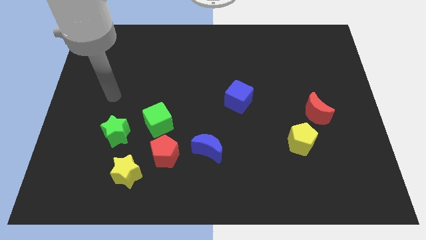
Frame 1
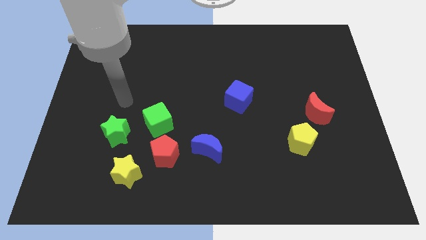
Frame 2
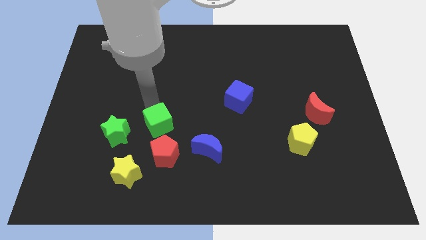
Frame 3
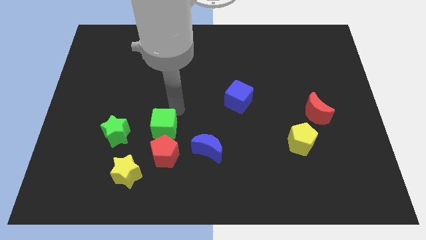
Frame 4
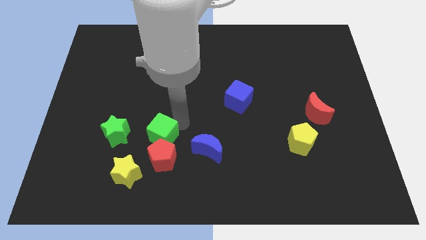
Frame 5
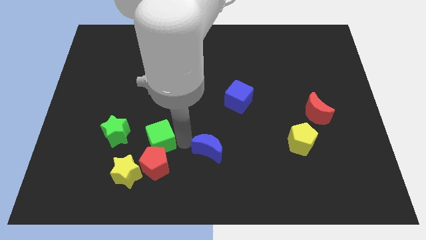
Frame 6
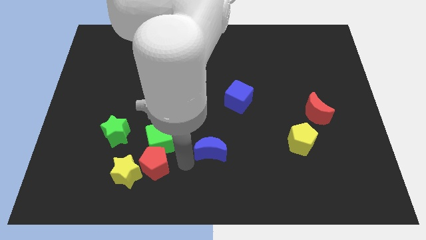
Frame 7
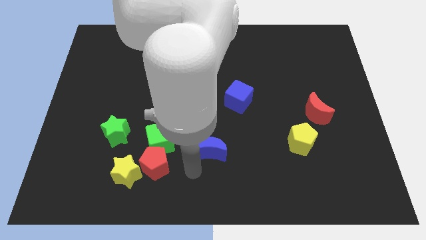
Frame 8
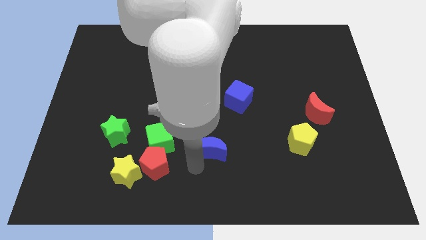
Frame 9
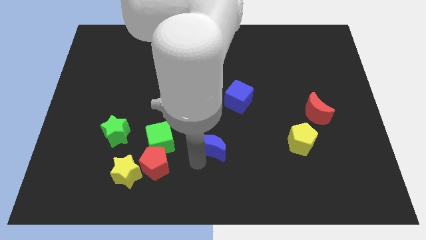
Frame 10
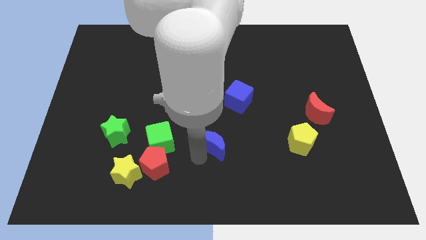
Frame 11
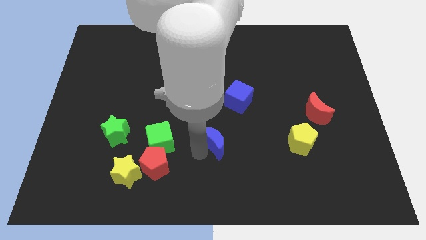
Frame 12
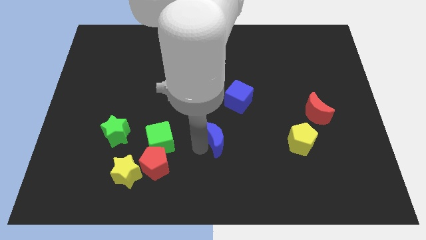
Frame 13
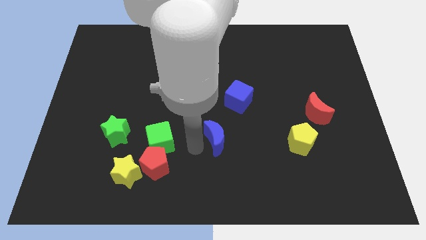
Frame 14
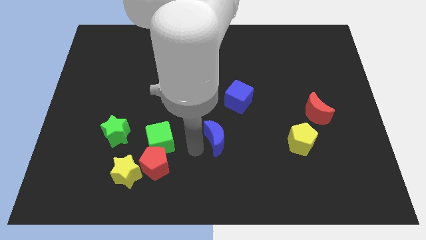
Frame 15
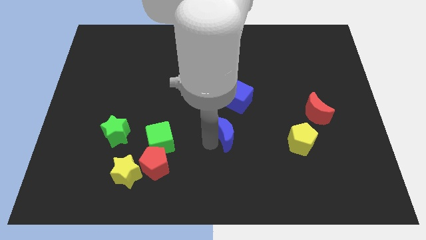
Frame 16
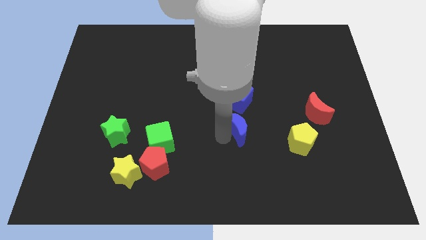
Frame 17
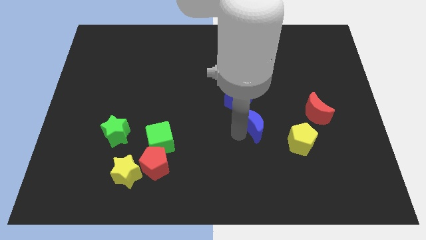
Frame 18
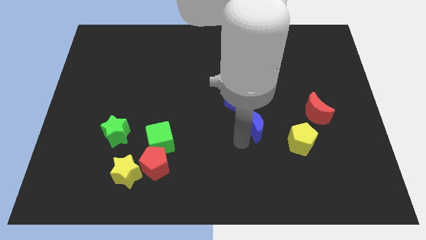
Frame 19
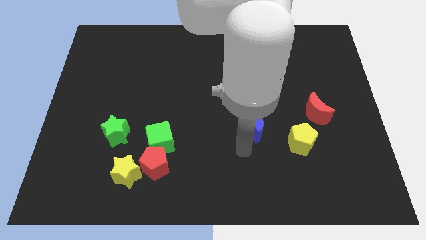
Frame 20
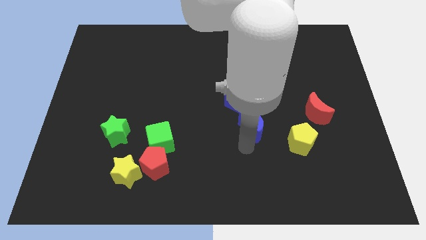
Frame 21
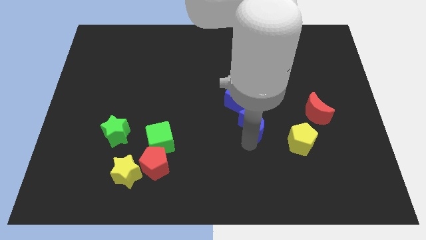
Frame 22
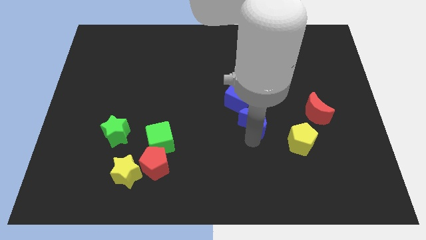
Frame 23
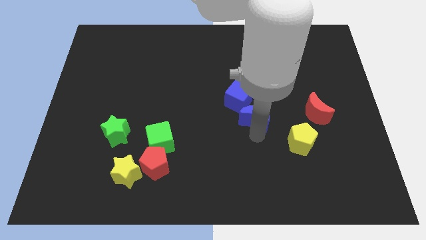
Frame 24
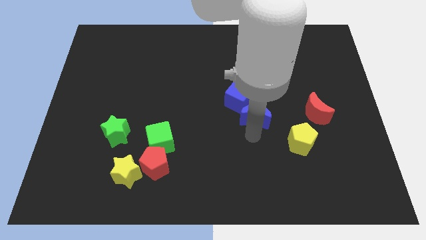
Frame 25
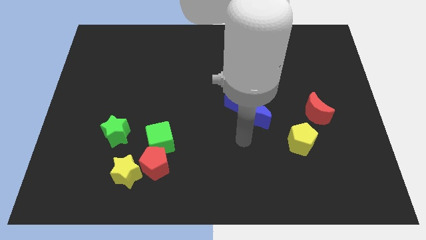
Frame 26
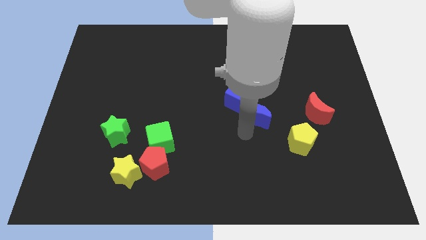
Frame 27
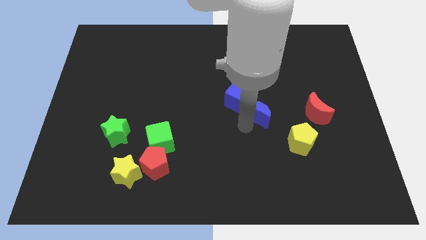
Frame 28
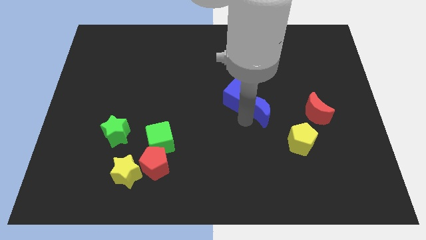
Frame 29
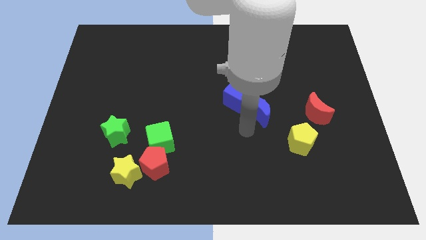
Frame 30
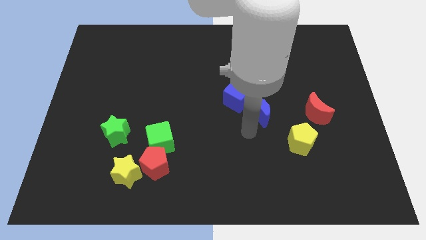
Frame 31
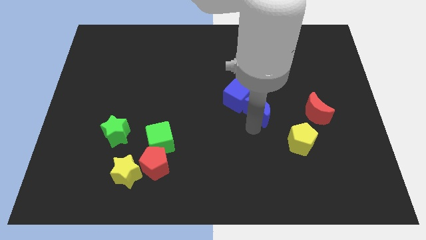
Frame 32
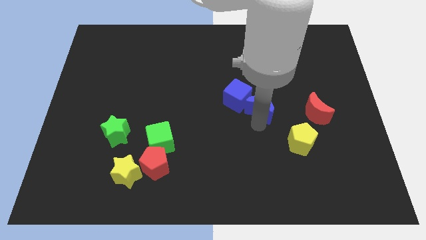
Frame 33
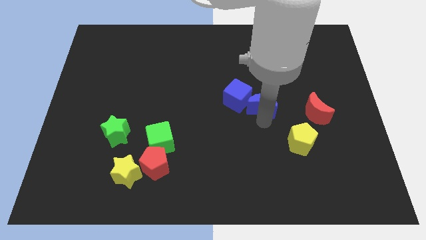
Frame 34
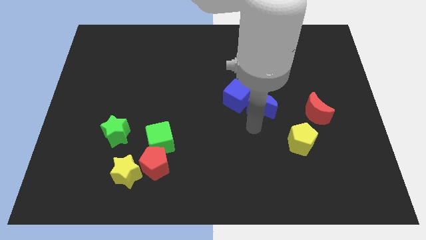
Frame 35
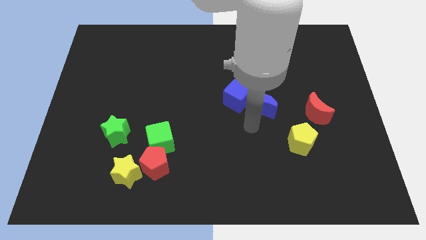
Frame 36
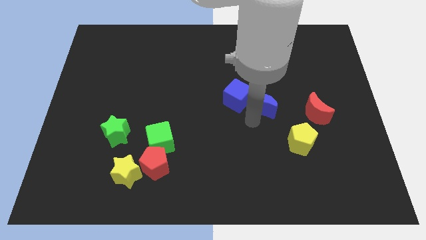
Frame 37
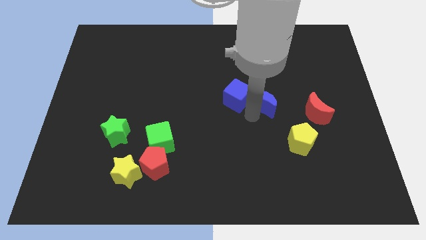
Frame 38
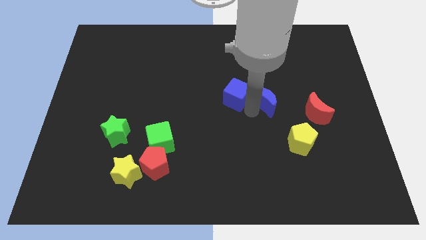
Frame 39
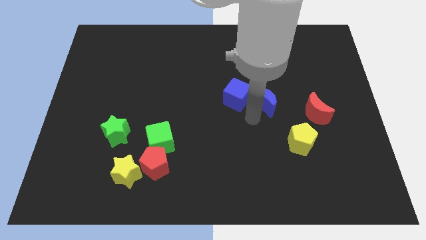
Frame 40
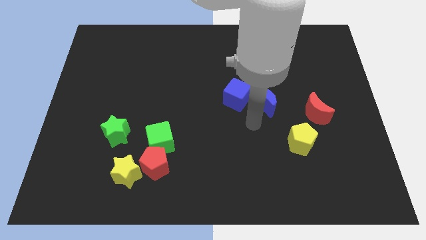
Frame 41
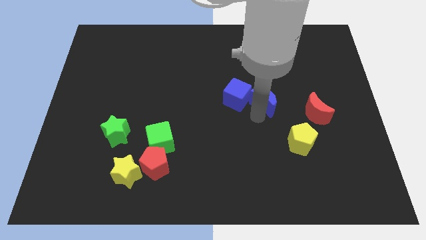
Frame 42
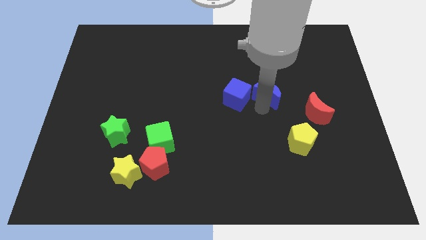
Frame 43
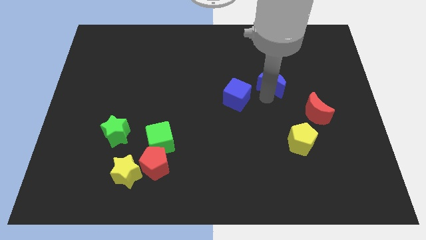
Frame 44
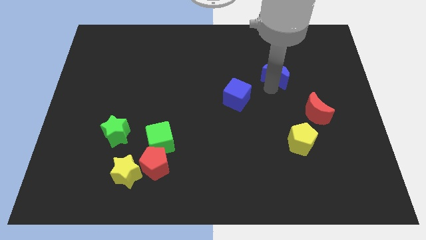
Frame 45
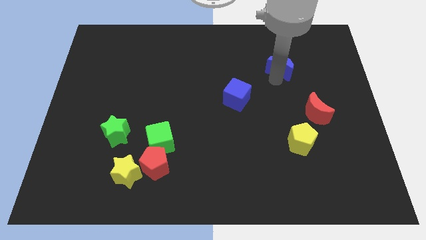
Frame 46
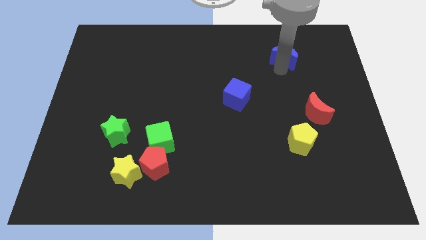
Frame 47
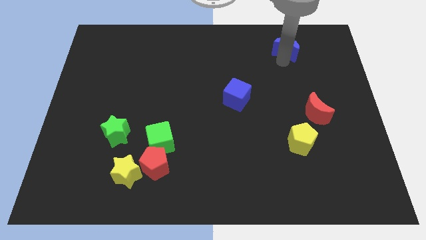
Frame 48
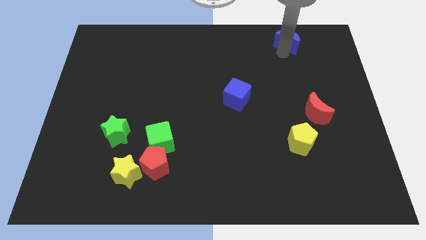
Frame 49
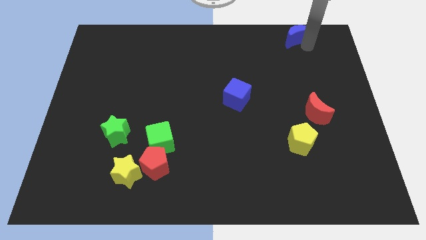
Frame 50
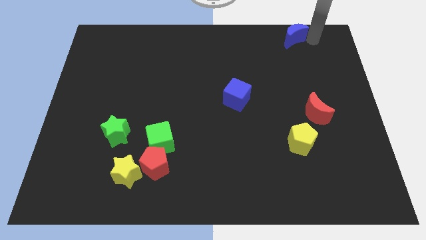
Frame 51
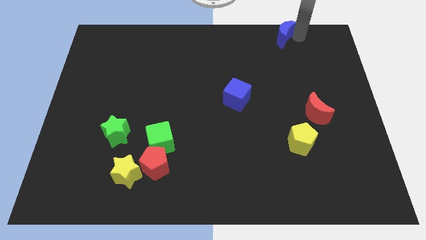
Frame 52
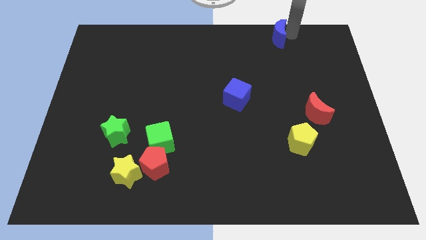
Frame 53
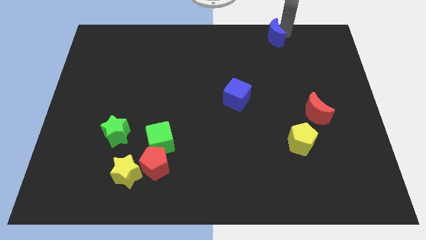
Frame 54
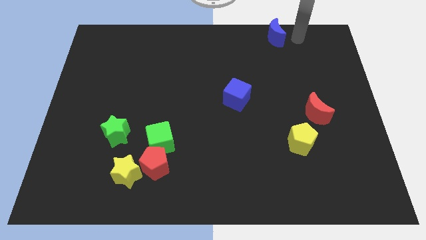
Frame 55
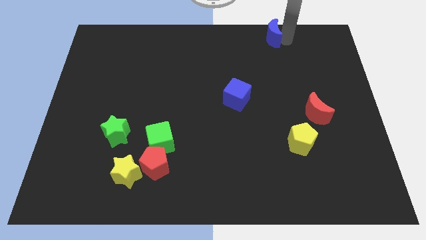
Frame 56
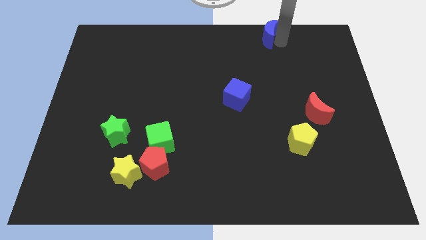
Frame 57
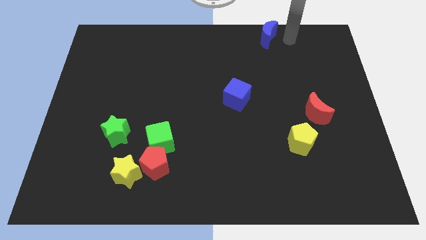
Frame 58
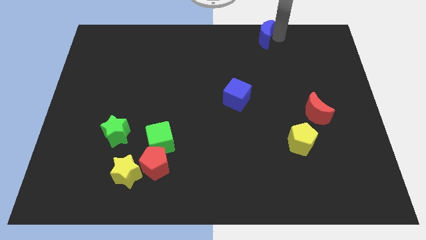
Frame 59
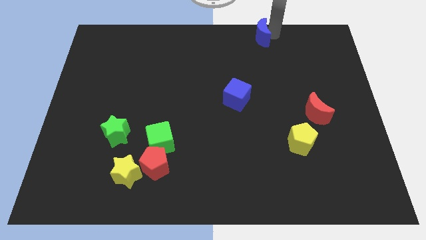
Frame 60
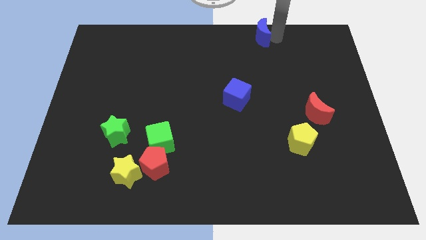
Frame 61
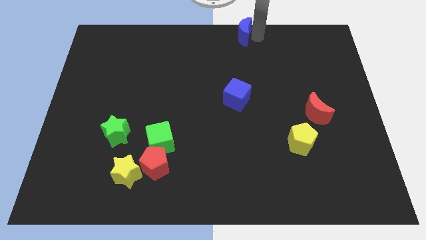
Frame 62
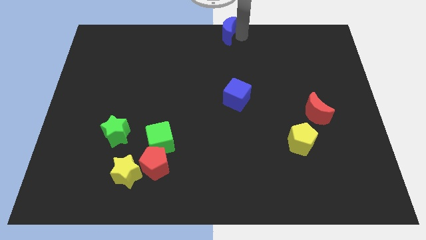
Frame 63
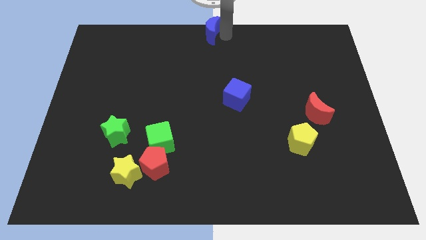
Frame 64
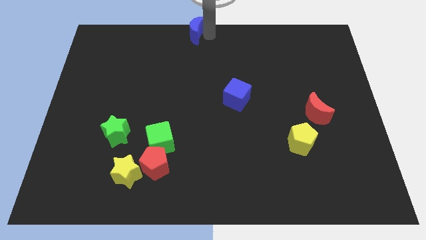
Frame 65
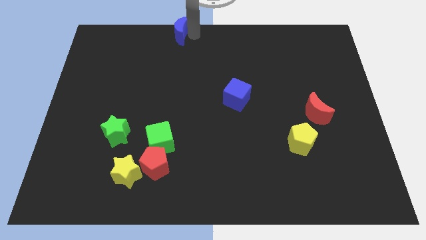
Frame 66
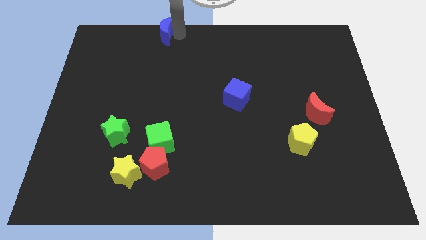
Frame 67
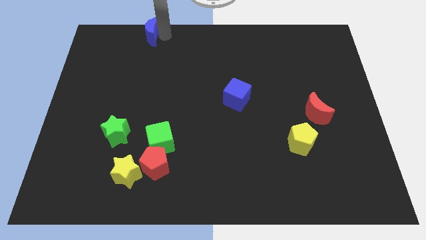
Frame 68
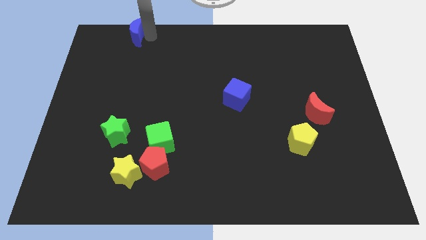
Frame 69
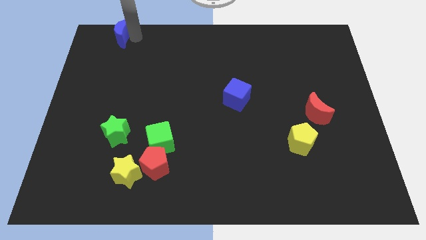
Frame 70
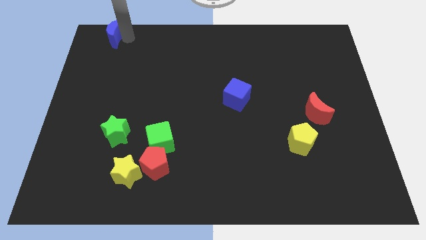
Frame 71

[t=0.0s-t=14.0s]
push the blue moon to the top left corner

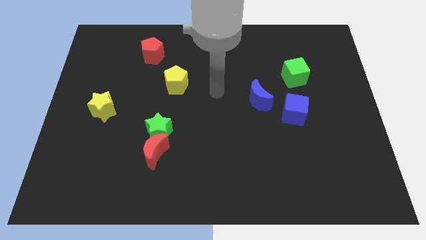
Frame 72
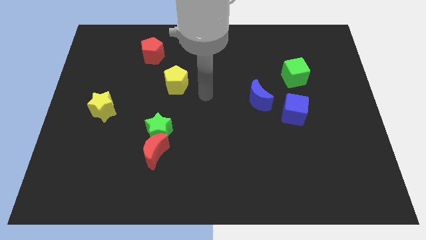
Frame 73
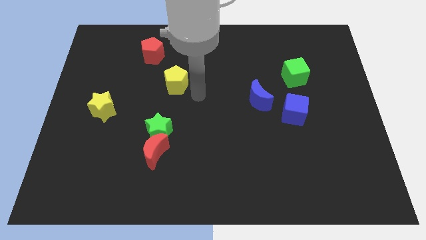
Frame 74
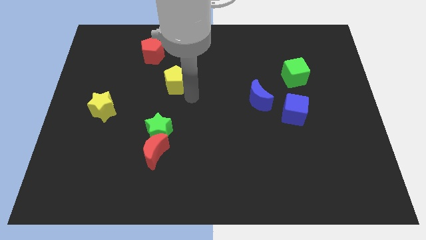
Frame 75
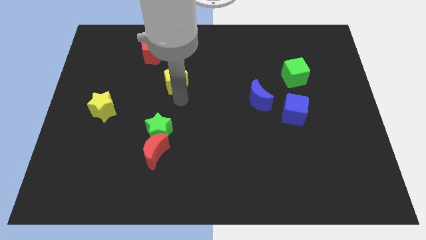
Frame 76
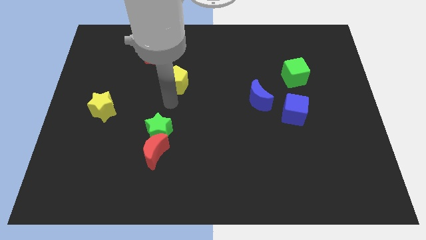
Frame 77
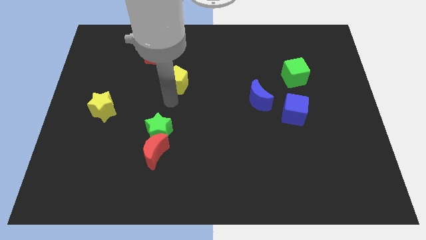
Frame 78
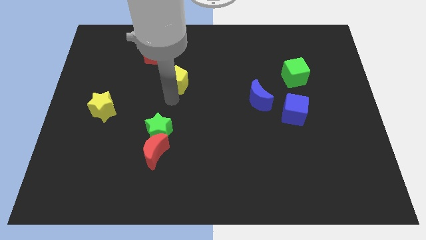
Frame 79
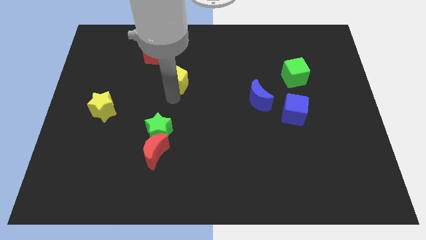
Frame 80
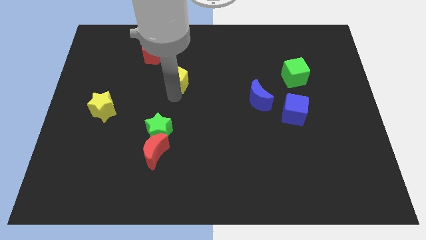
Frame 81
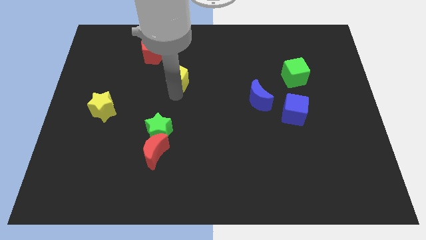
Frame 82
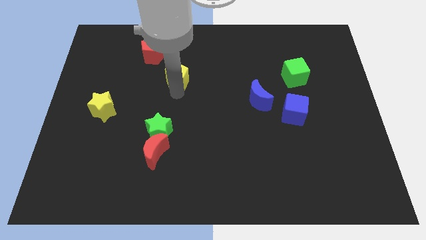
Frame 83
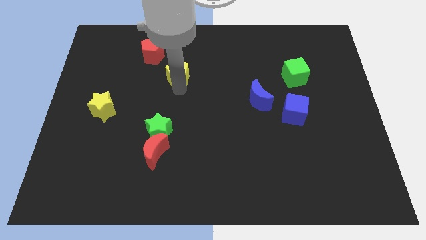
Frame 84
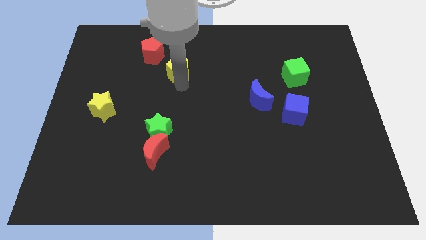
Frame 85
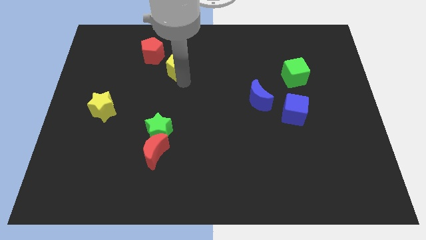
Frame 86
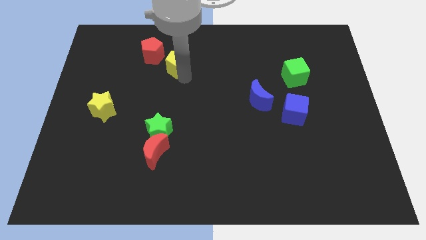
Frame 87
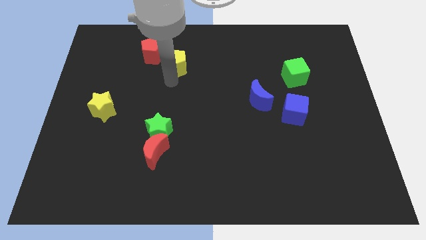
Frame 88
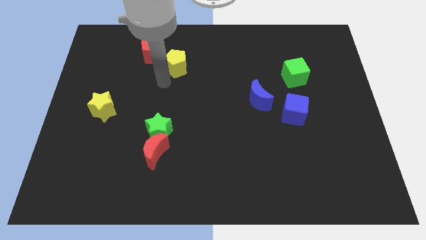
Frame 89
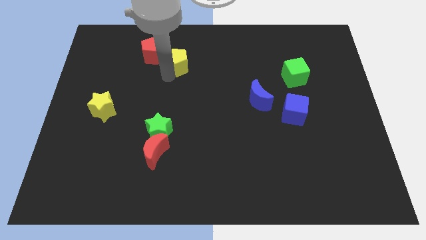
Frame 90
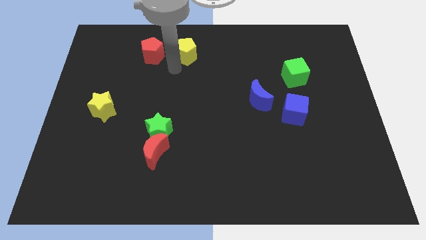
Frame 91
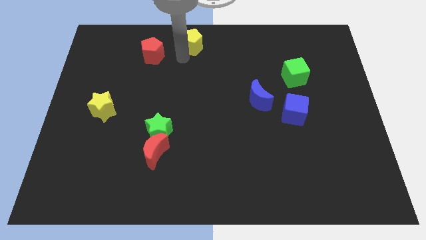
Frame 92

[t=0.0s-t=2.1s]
slide the yellow pentagon to the top
